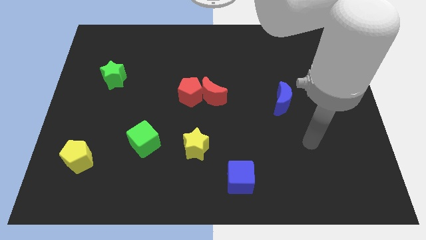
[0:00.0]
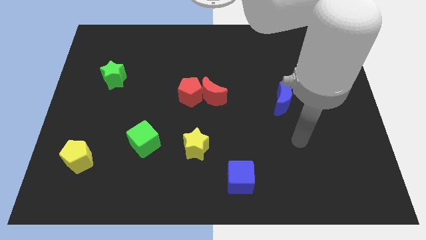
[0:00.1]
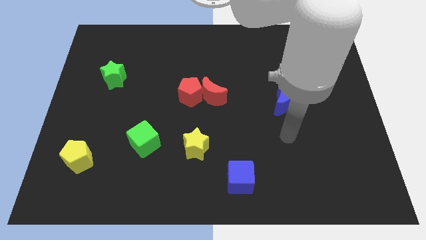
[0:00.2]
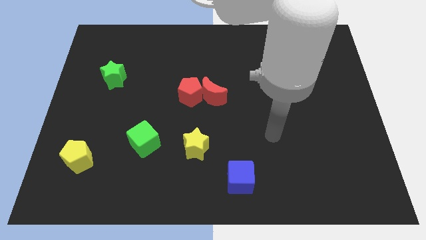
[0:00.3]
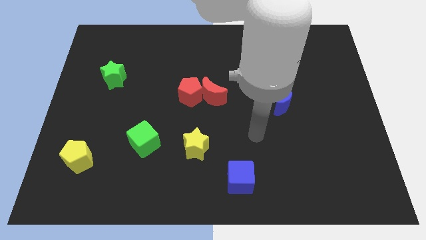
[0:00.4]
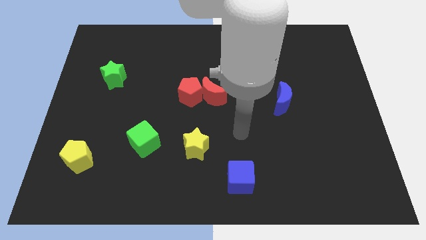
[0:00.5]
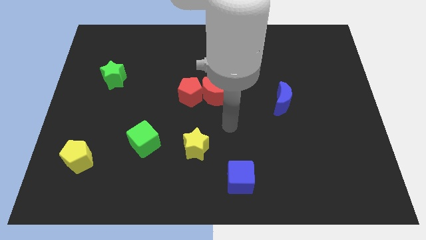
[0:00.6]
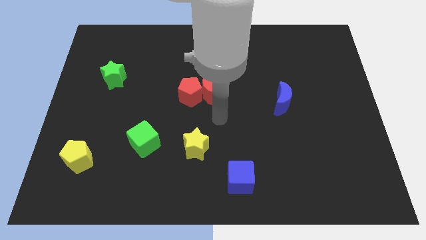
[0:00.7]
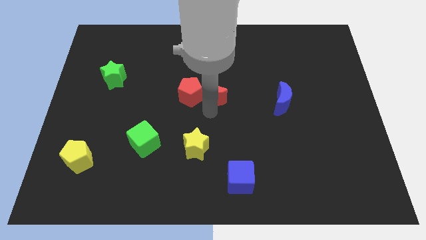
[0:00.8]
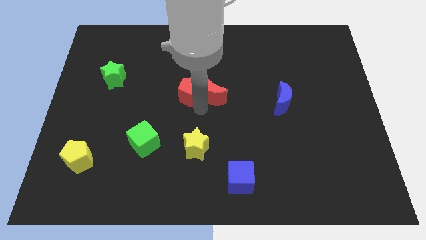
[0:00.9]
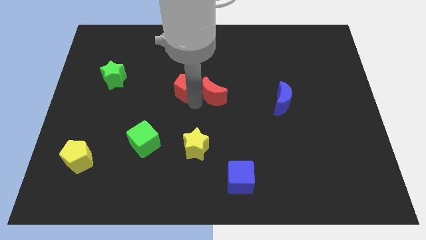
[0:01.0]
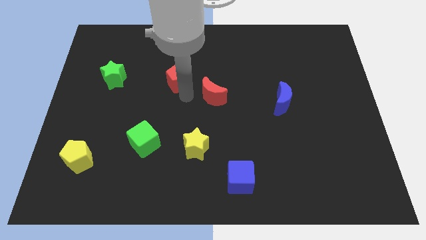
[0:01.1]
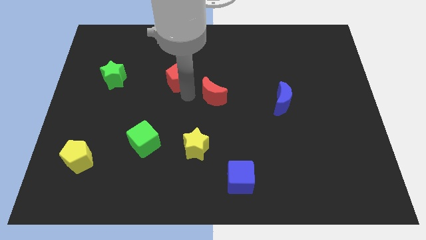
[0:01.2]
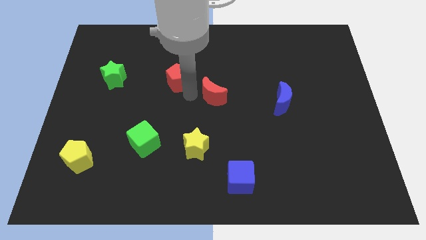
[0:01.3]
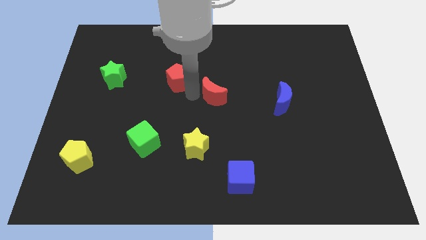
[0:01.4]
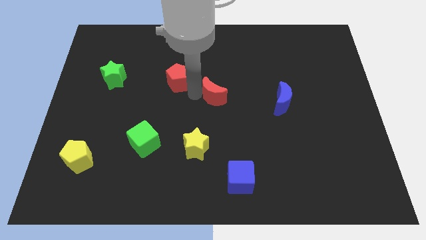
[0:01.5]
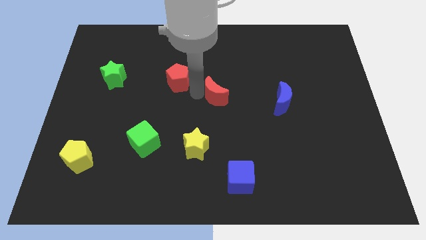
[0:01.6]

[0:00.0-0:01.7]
separate the red moon from the red pentagon

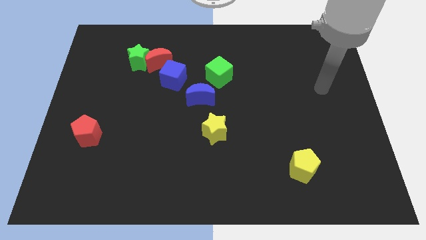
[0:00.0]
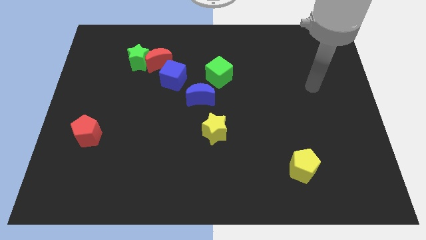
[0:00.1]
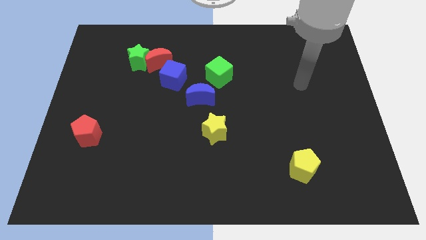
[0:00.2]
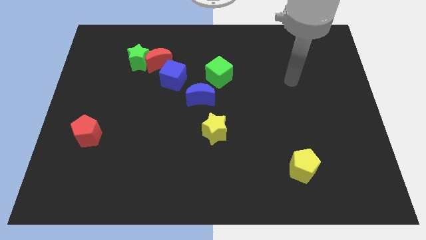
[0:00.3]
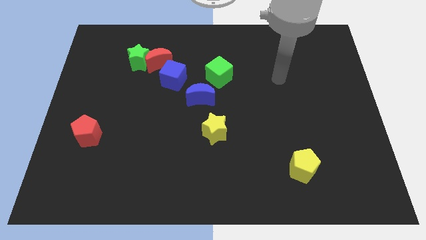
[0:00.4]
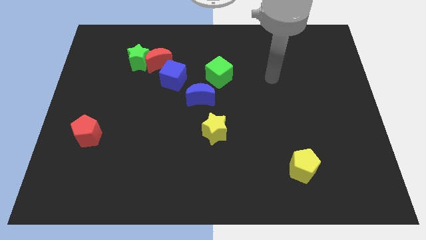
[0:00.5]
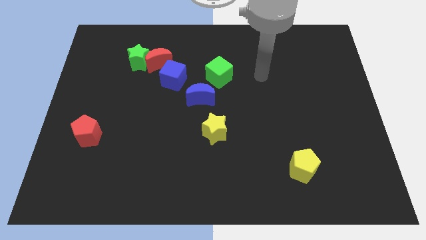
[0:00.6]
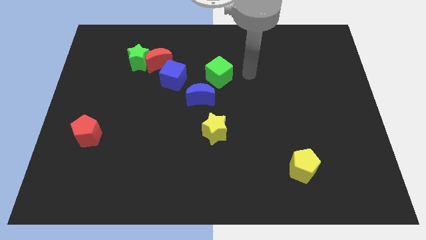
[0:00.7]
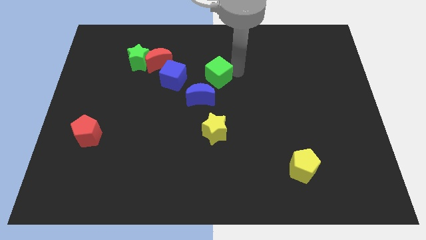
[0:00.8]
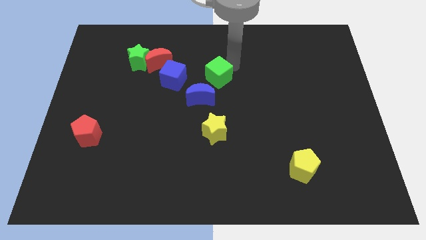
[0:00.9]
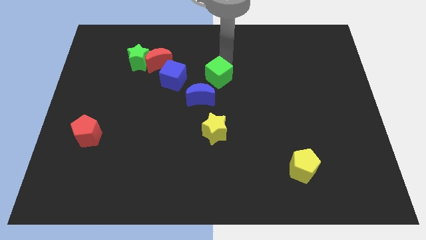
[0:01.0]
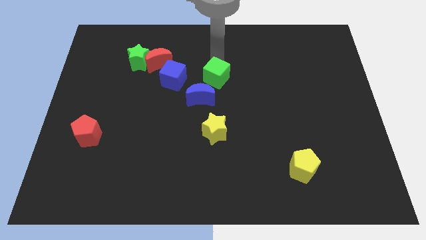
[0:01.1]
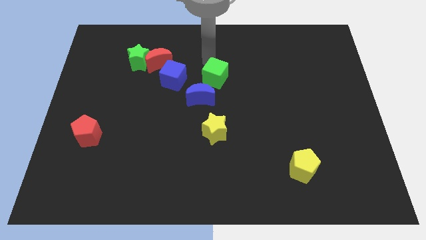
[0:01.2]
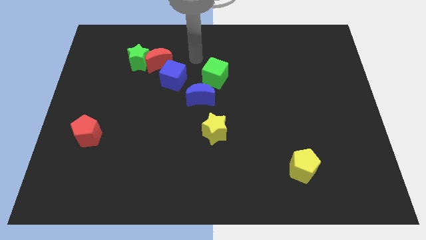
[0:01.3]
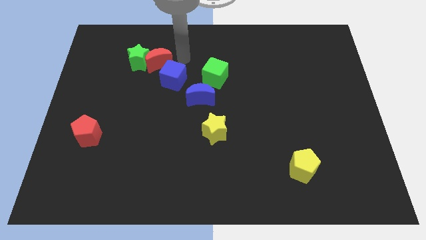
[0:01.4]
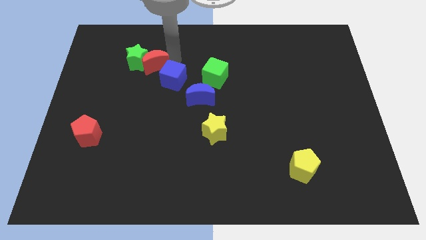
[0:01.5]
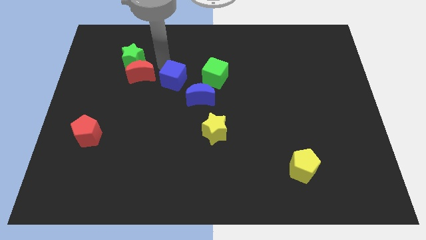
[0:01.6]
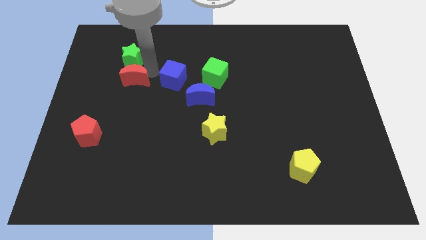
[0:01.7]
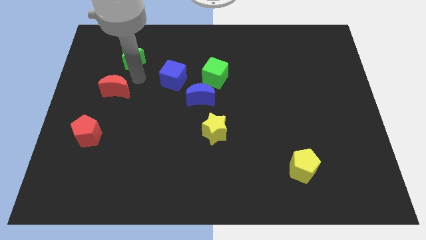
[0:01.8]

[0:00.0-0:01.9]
move the green star away from the red moon

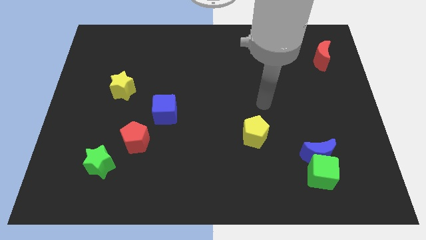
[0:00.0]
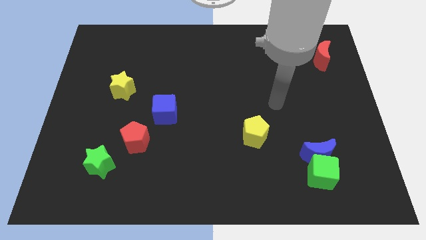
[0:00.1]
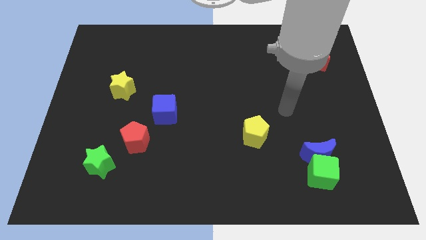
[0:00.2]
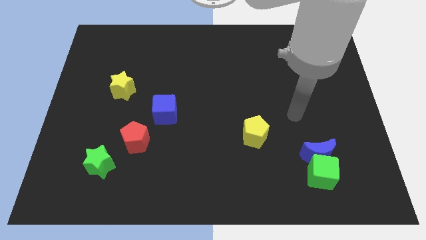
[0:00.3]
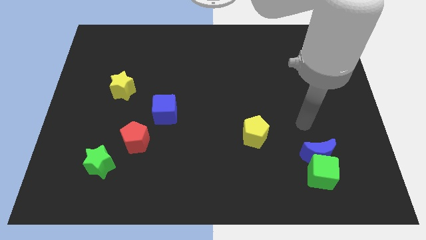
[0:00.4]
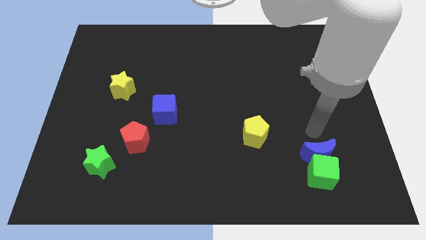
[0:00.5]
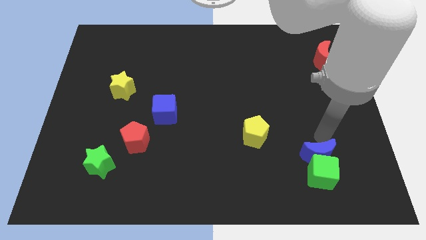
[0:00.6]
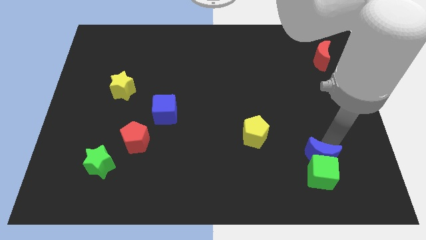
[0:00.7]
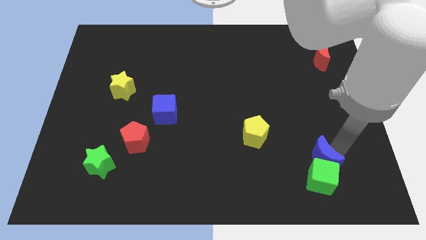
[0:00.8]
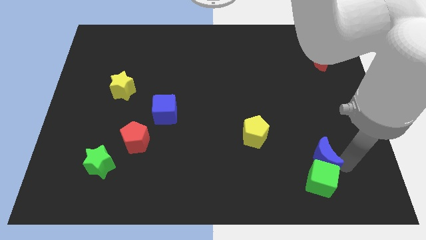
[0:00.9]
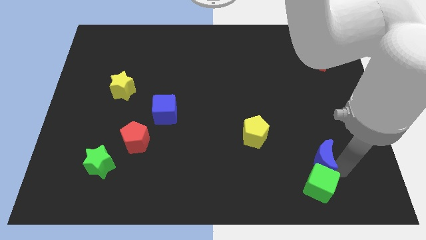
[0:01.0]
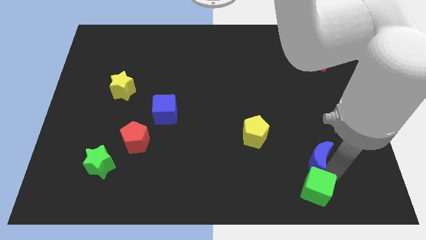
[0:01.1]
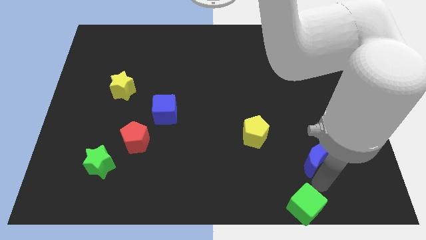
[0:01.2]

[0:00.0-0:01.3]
move the blue moon away from the green cube

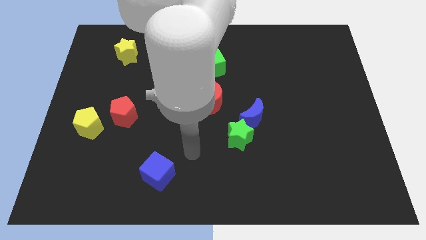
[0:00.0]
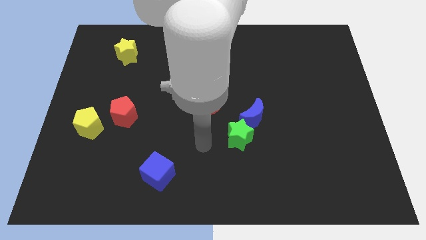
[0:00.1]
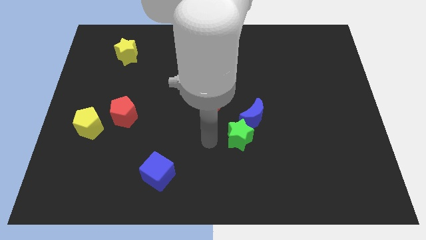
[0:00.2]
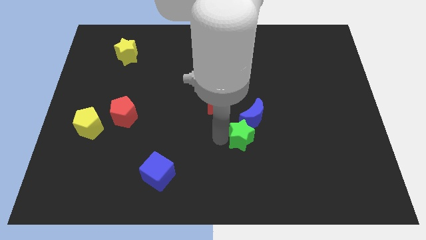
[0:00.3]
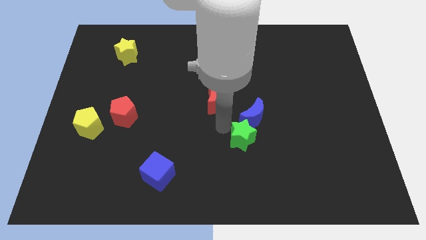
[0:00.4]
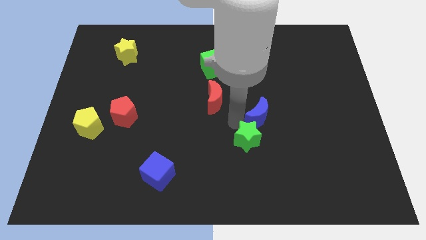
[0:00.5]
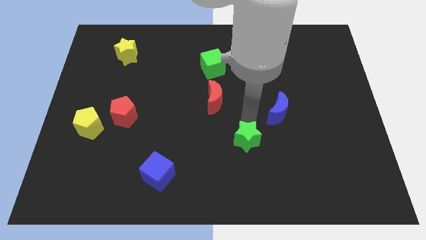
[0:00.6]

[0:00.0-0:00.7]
pull the green star apart from the blue moon

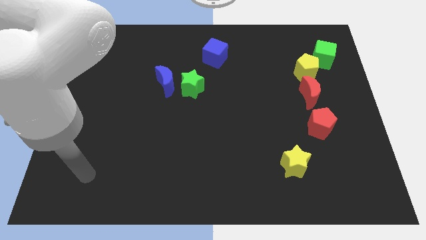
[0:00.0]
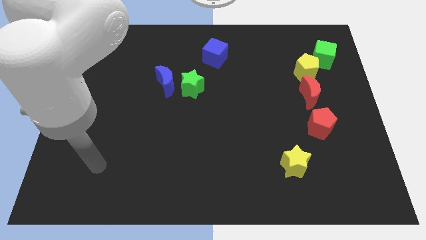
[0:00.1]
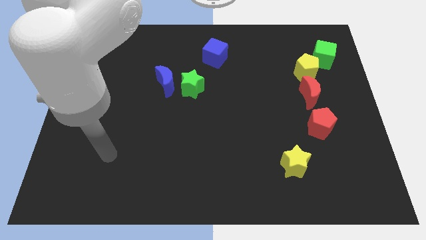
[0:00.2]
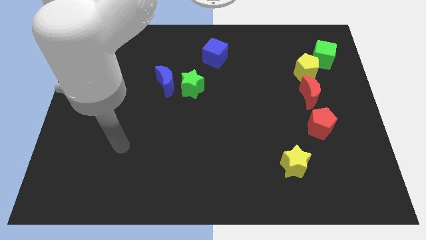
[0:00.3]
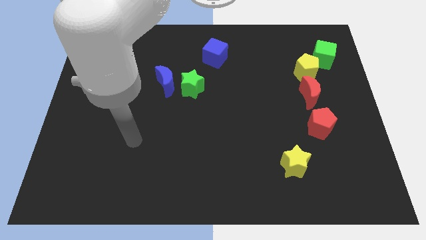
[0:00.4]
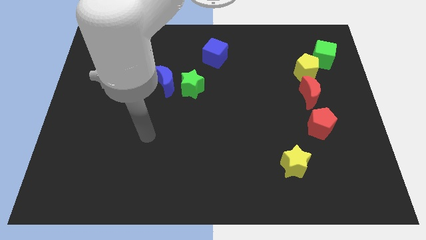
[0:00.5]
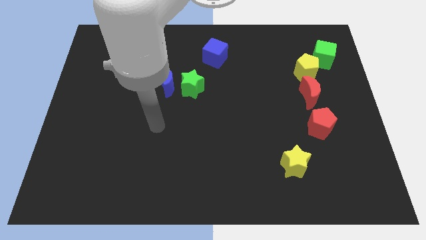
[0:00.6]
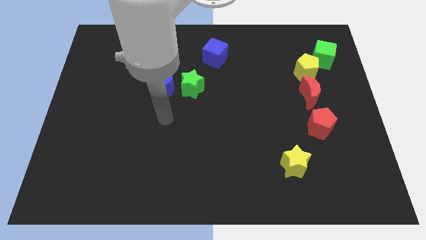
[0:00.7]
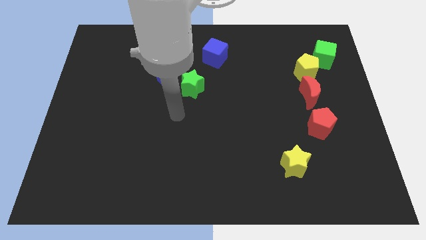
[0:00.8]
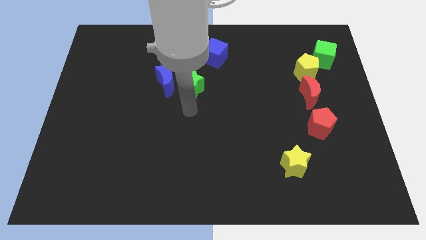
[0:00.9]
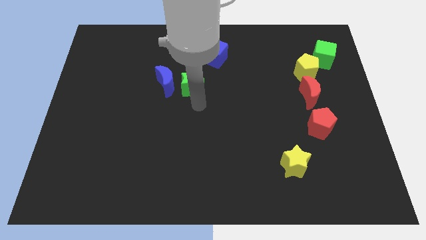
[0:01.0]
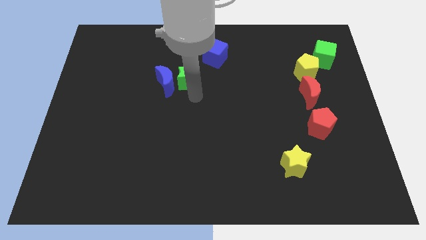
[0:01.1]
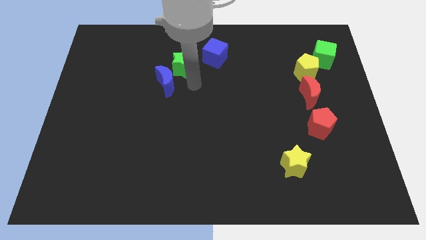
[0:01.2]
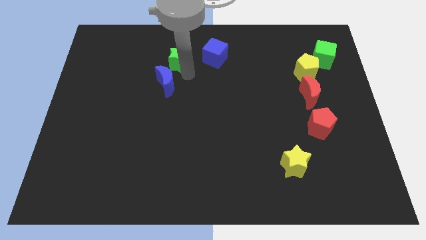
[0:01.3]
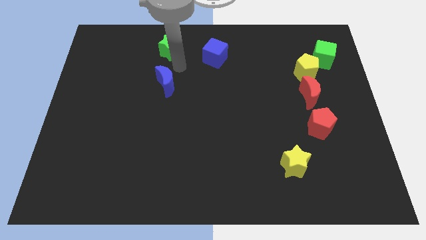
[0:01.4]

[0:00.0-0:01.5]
separate the blue moon from the green star

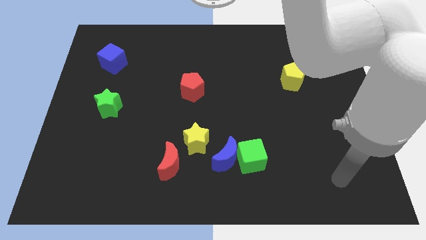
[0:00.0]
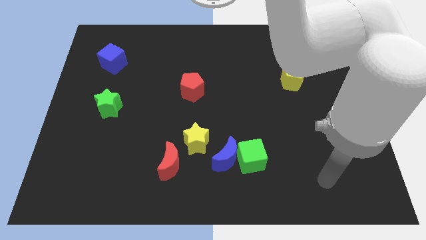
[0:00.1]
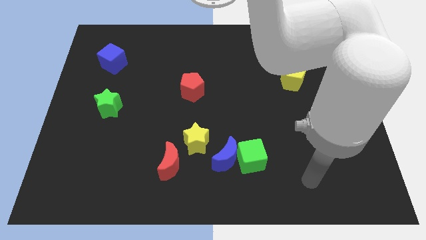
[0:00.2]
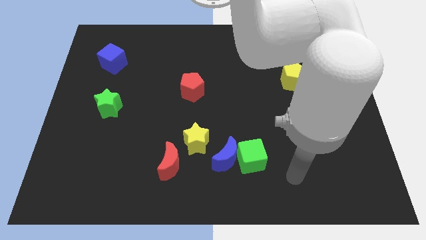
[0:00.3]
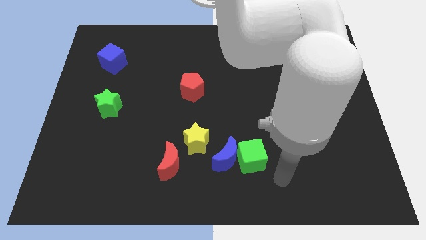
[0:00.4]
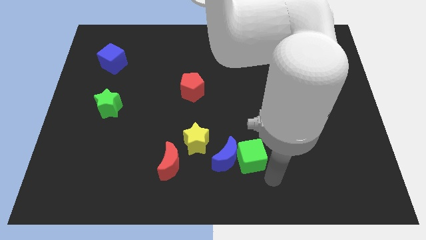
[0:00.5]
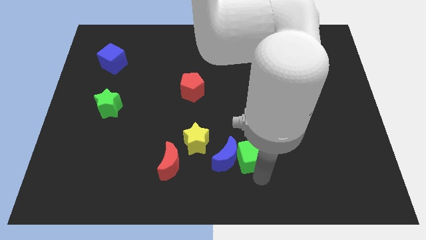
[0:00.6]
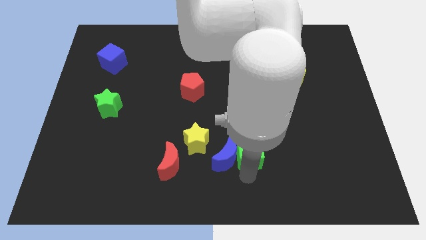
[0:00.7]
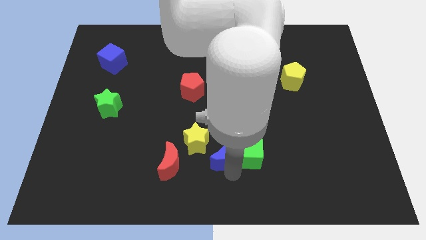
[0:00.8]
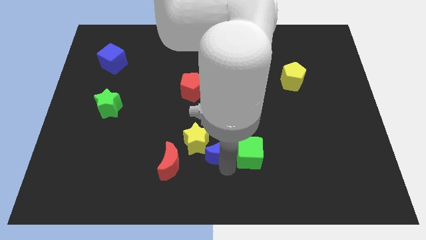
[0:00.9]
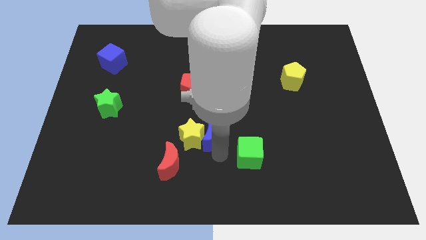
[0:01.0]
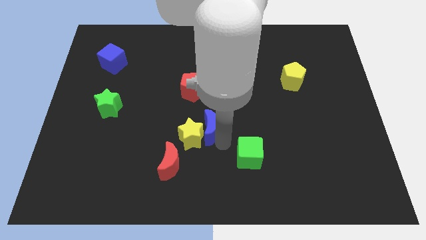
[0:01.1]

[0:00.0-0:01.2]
move the green cube away from the blue moon

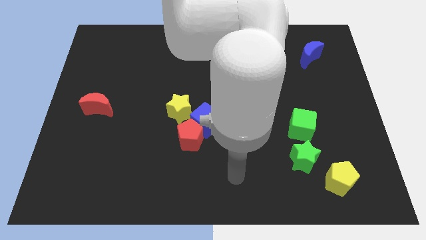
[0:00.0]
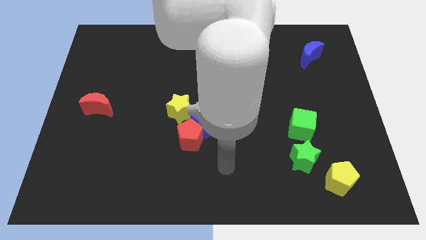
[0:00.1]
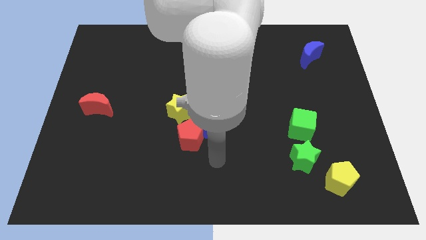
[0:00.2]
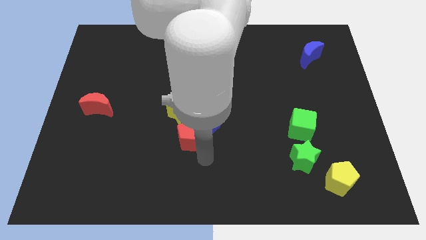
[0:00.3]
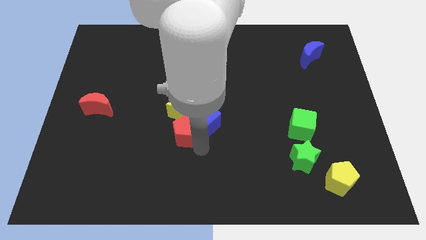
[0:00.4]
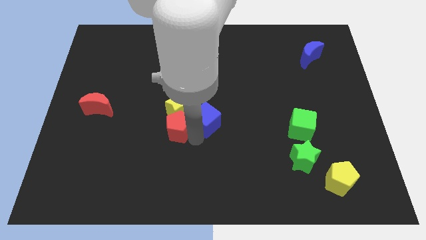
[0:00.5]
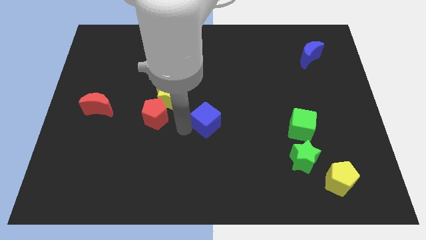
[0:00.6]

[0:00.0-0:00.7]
separate the blue cube from the red pentagon and yellow star

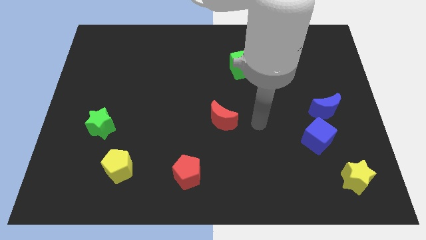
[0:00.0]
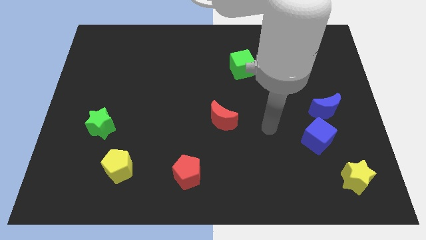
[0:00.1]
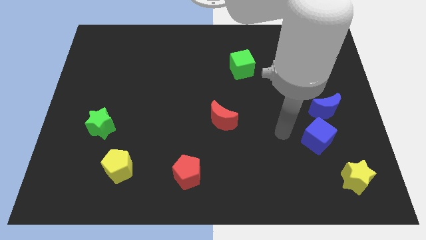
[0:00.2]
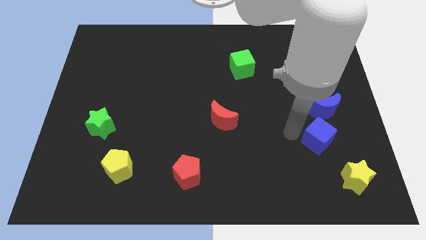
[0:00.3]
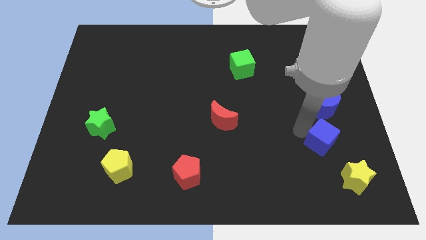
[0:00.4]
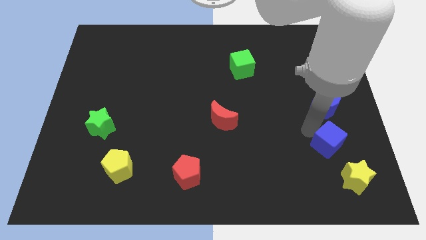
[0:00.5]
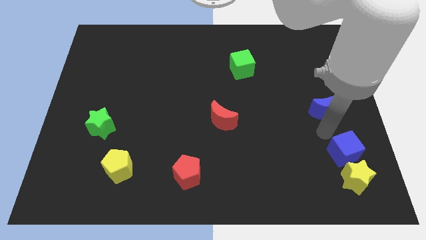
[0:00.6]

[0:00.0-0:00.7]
pull the blue moon apart from the blue cube
